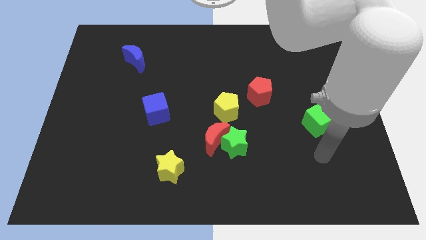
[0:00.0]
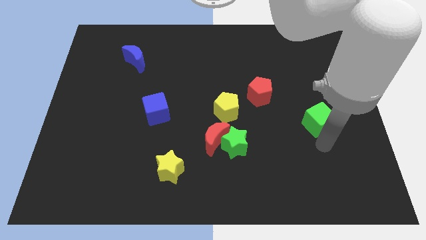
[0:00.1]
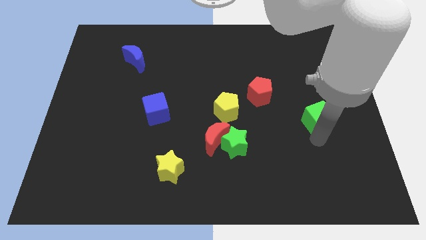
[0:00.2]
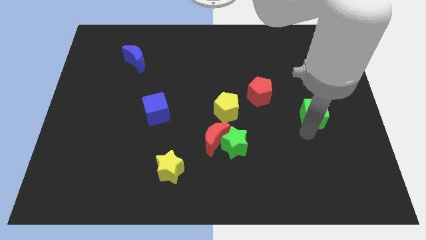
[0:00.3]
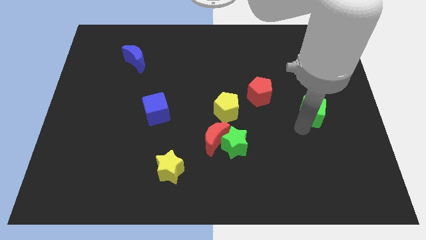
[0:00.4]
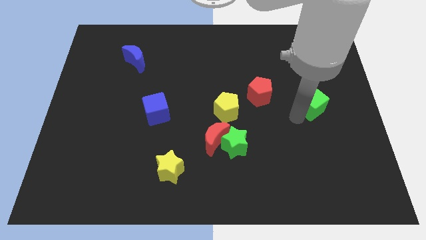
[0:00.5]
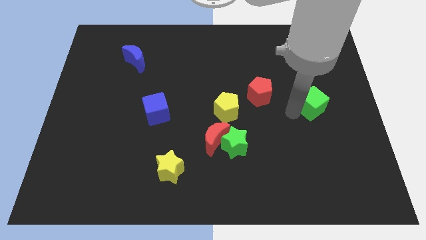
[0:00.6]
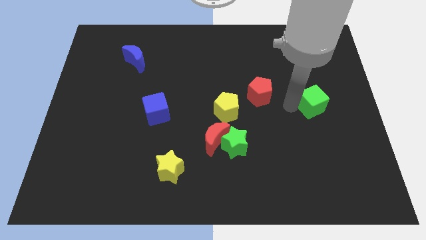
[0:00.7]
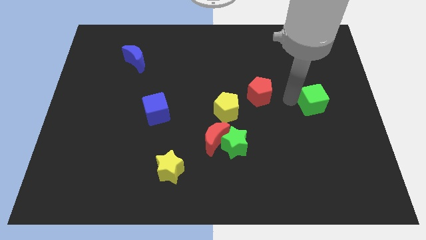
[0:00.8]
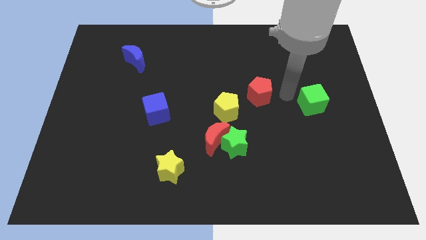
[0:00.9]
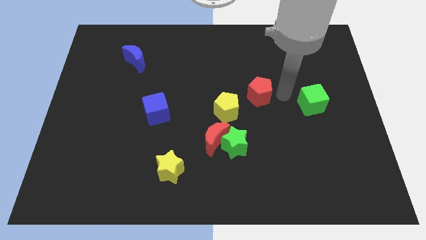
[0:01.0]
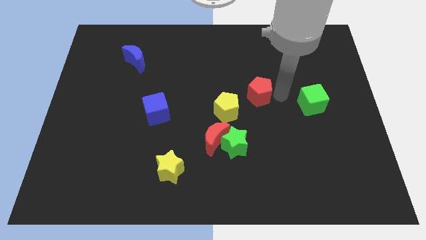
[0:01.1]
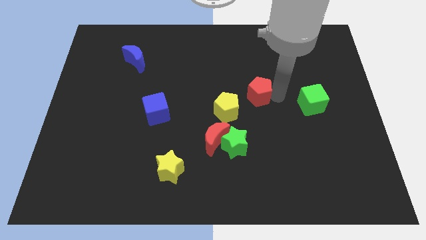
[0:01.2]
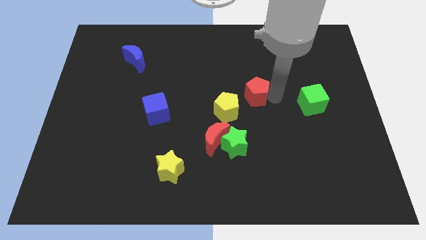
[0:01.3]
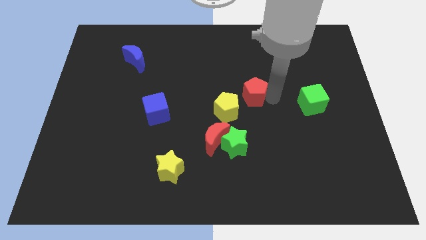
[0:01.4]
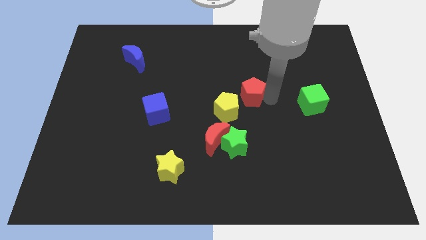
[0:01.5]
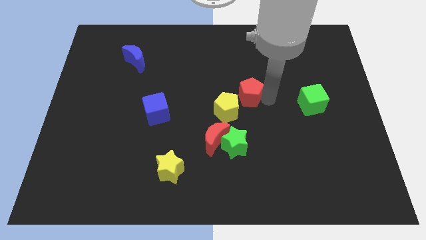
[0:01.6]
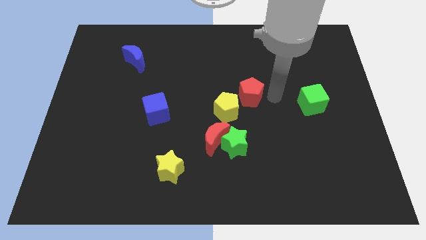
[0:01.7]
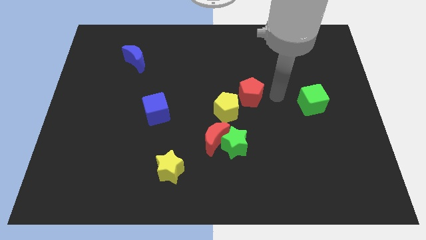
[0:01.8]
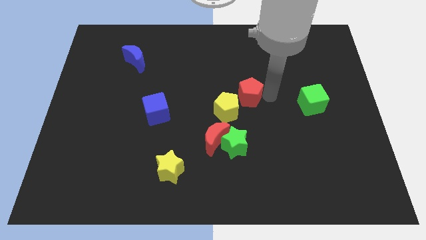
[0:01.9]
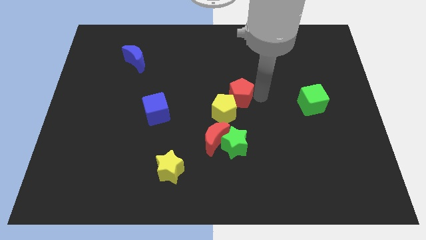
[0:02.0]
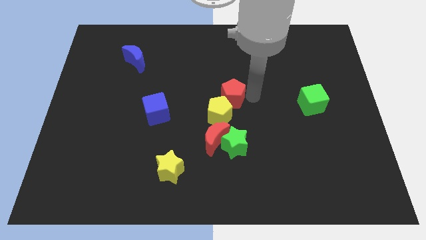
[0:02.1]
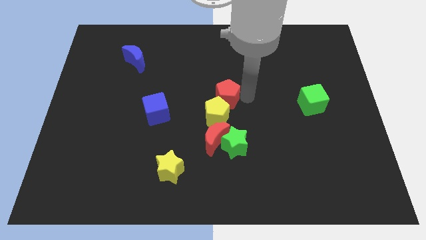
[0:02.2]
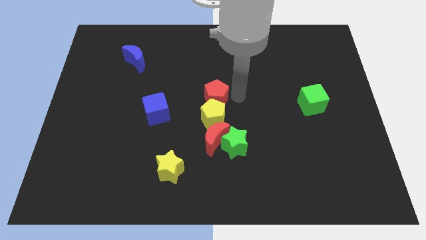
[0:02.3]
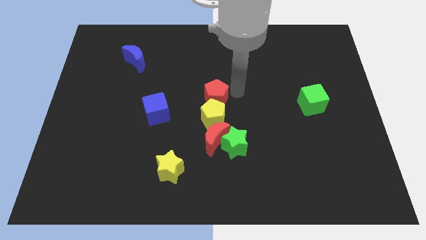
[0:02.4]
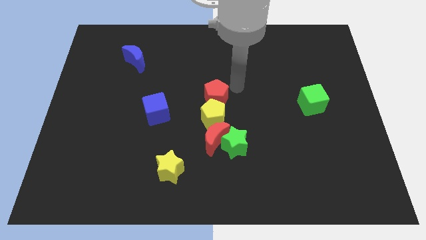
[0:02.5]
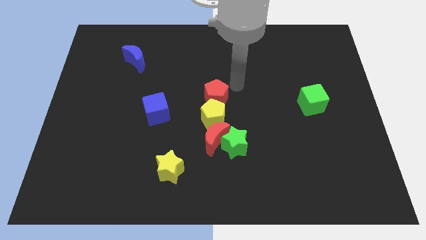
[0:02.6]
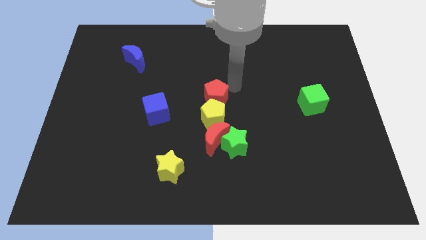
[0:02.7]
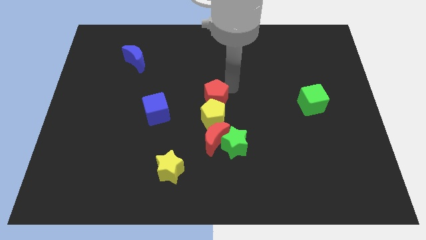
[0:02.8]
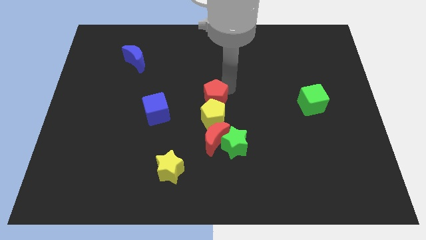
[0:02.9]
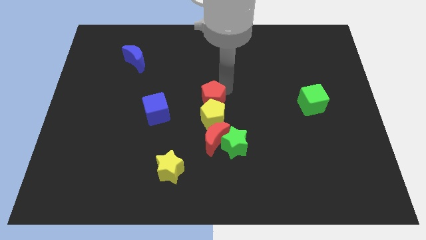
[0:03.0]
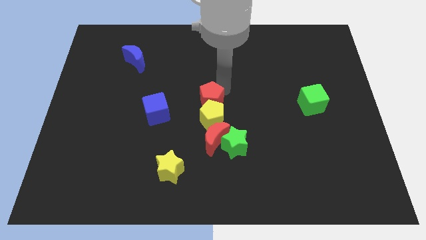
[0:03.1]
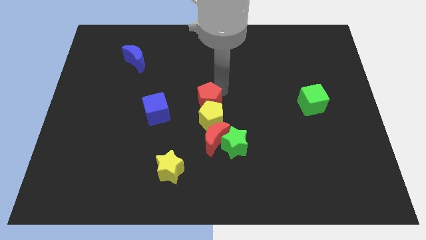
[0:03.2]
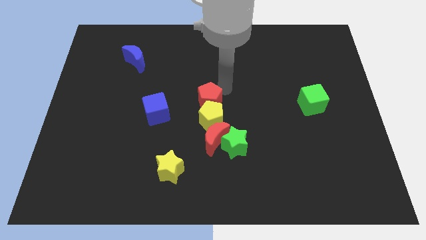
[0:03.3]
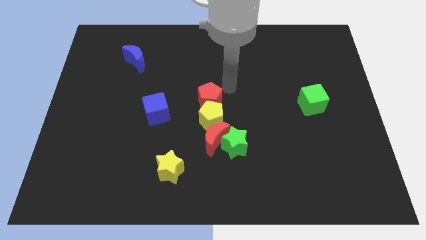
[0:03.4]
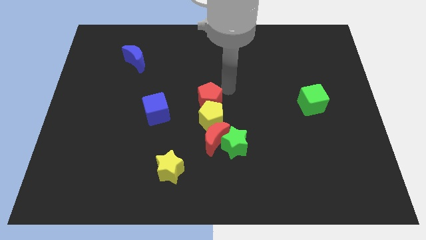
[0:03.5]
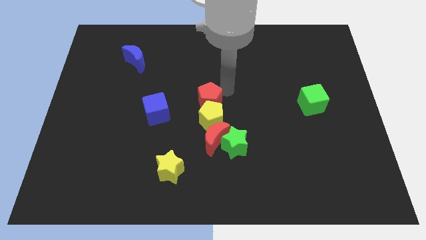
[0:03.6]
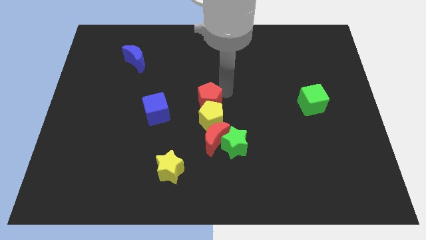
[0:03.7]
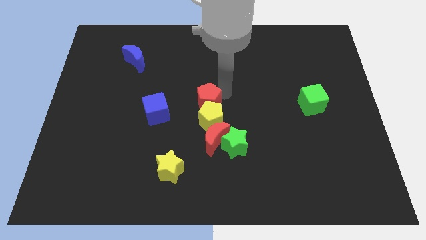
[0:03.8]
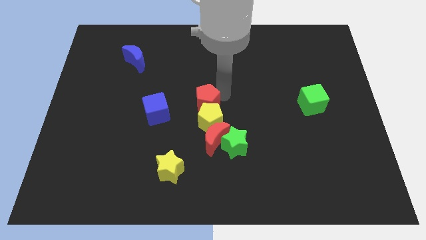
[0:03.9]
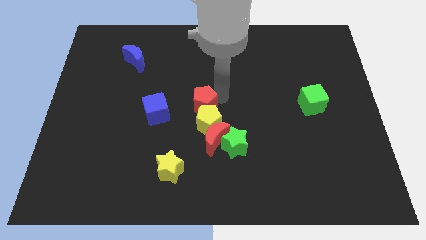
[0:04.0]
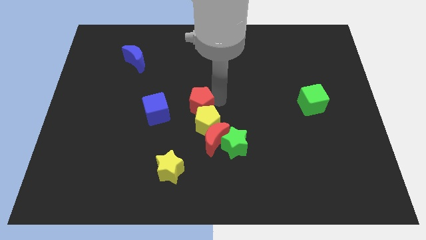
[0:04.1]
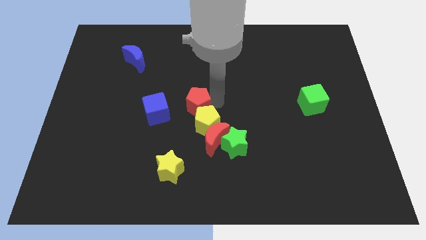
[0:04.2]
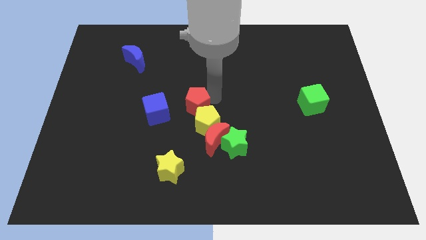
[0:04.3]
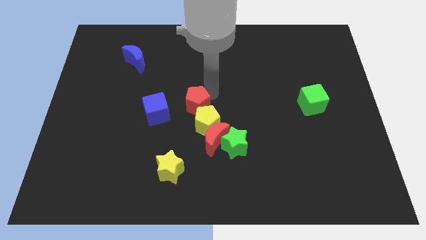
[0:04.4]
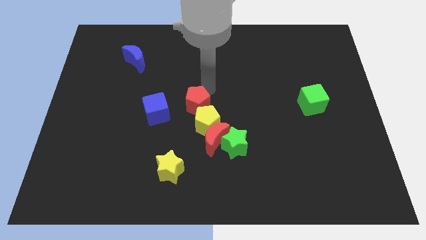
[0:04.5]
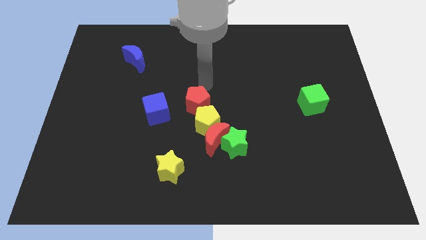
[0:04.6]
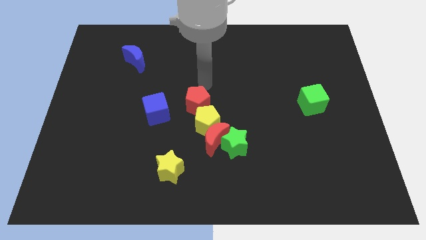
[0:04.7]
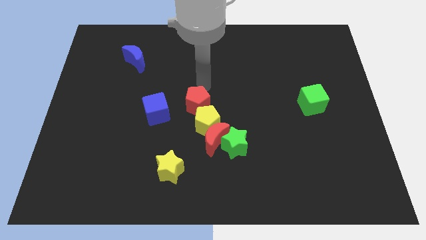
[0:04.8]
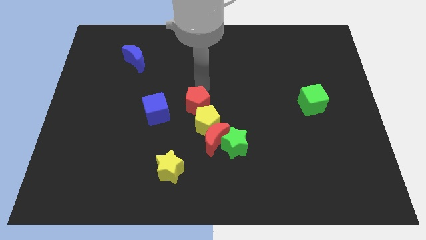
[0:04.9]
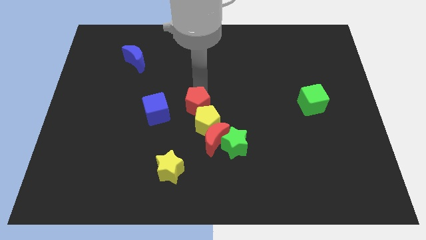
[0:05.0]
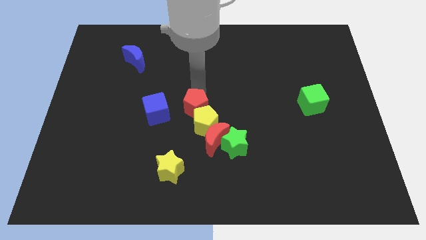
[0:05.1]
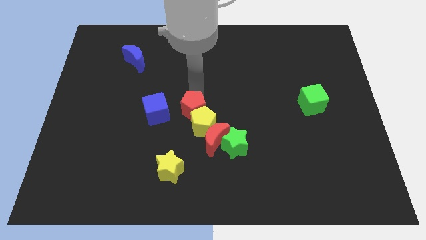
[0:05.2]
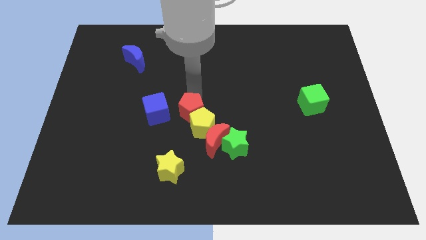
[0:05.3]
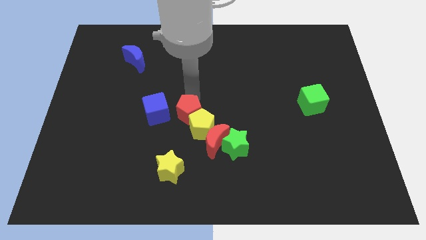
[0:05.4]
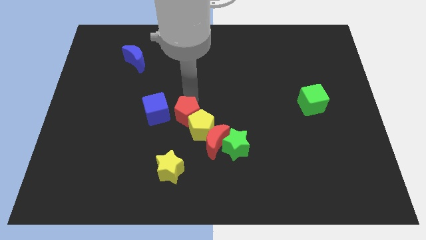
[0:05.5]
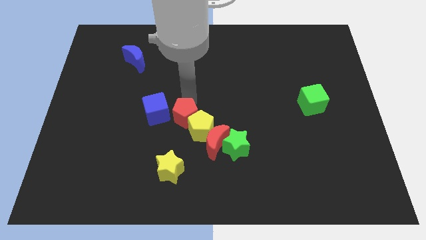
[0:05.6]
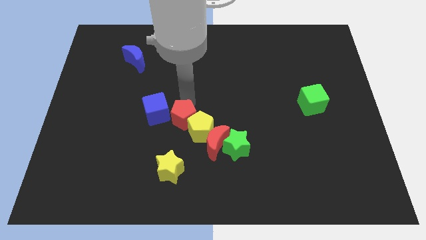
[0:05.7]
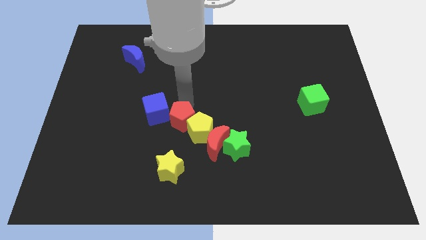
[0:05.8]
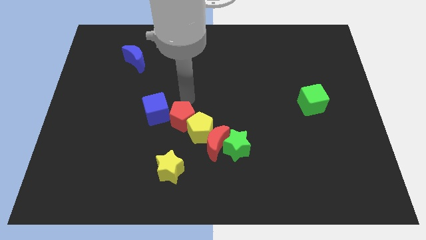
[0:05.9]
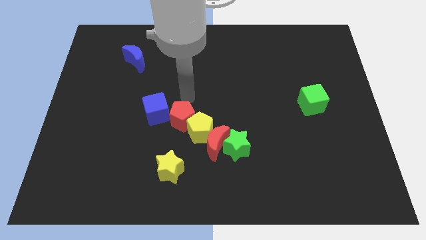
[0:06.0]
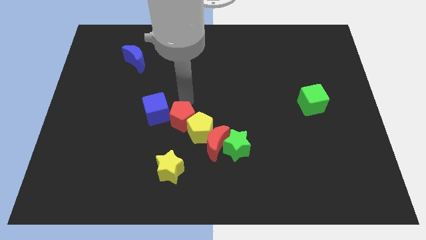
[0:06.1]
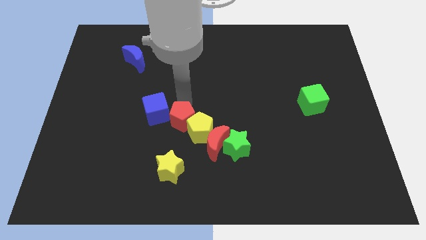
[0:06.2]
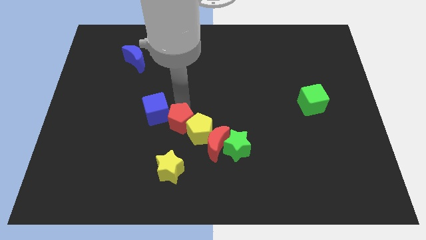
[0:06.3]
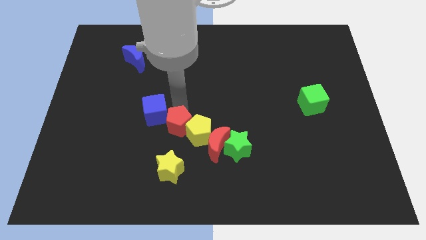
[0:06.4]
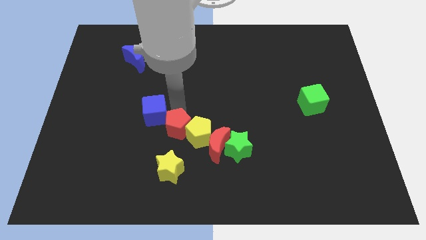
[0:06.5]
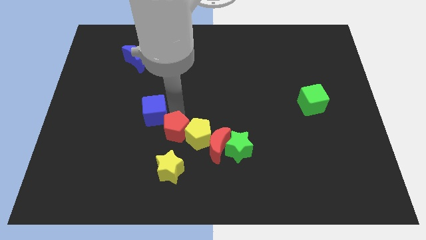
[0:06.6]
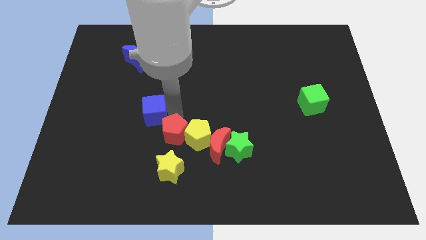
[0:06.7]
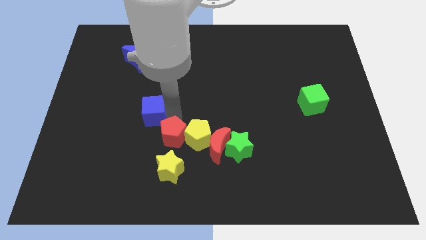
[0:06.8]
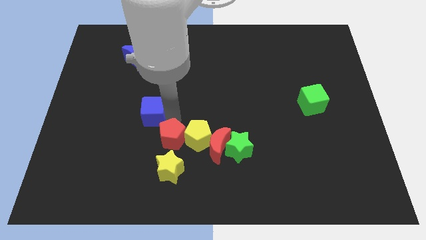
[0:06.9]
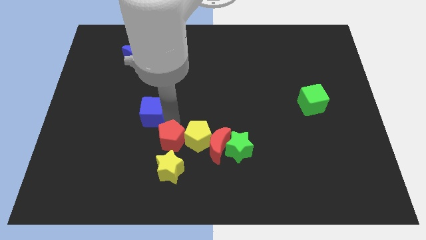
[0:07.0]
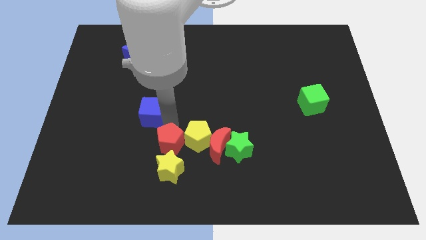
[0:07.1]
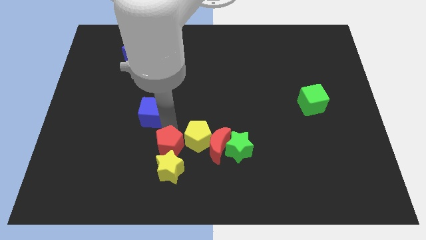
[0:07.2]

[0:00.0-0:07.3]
slide the red pentagon to the yellow star
